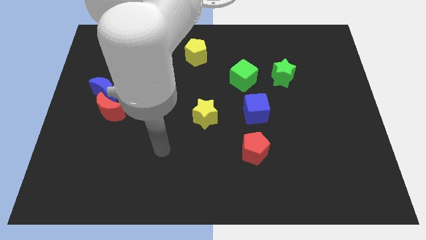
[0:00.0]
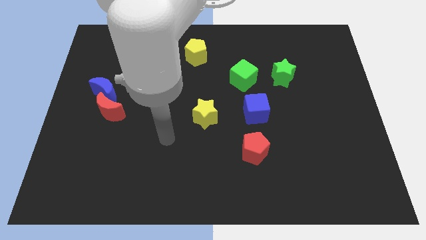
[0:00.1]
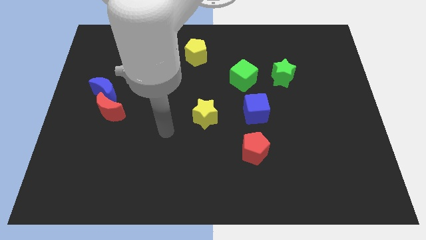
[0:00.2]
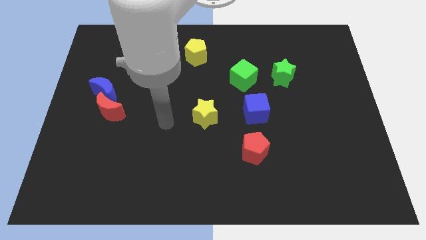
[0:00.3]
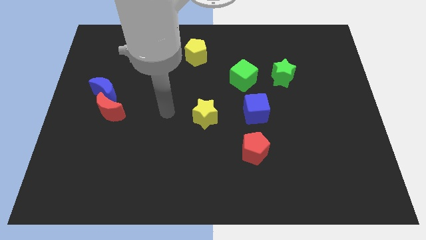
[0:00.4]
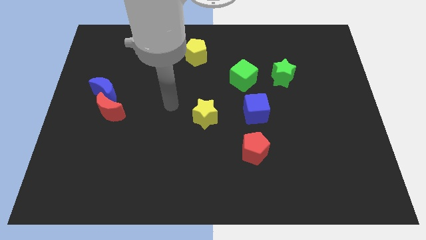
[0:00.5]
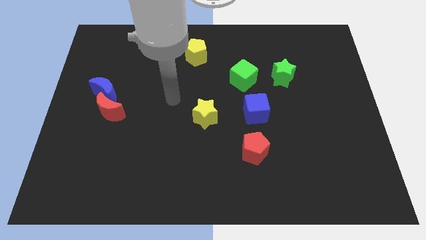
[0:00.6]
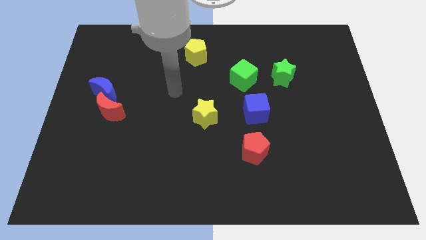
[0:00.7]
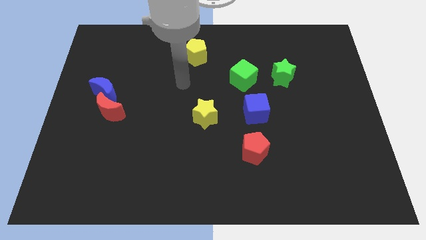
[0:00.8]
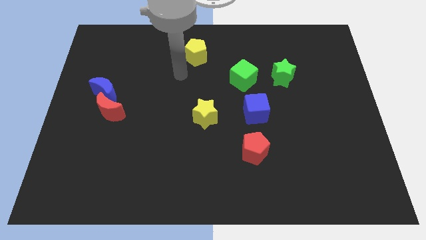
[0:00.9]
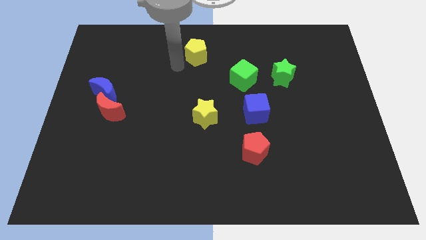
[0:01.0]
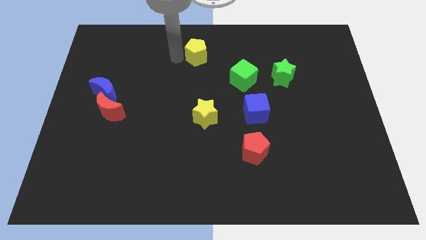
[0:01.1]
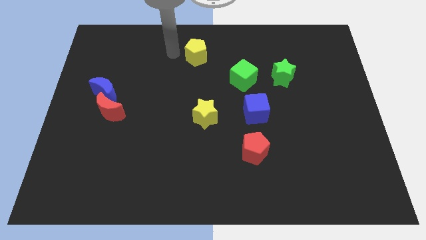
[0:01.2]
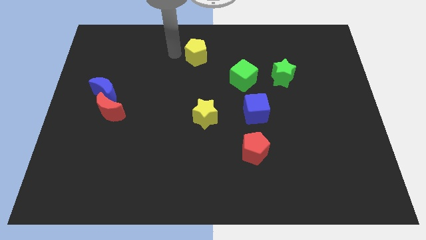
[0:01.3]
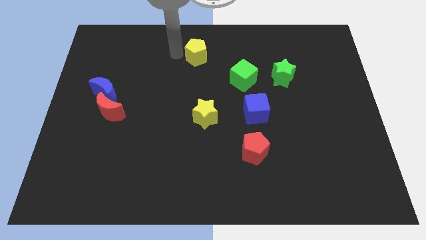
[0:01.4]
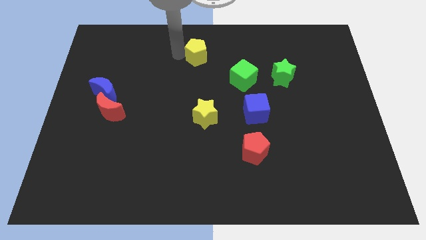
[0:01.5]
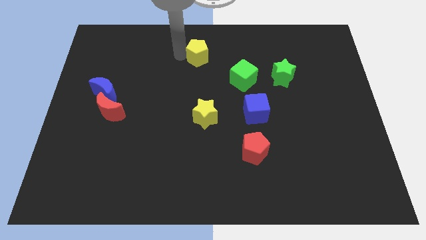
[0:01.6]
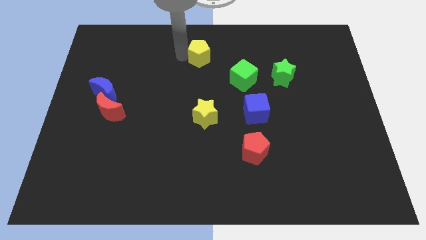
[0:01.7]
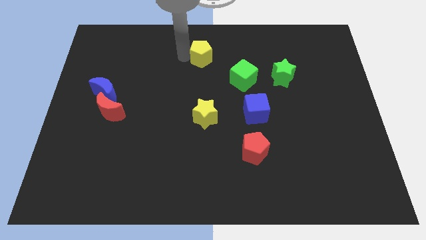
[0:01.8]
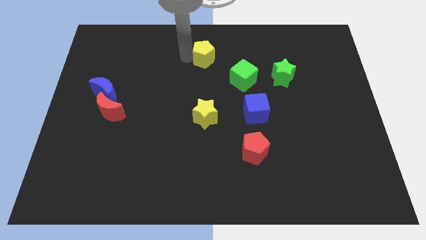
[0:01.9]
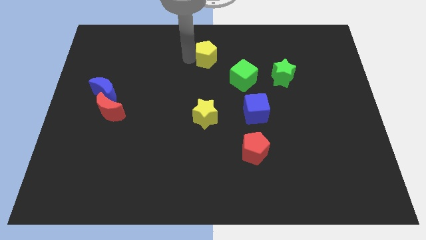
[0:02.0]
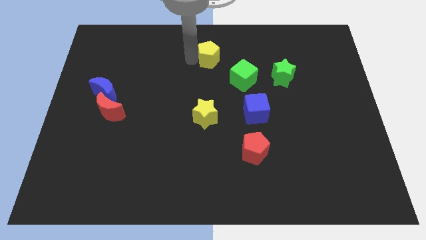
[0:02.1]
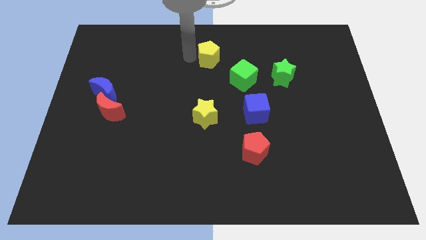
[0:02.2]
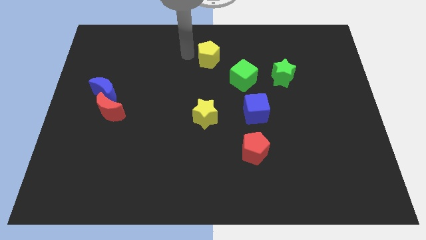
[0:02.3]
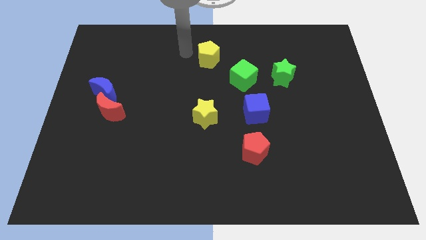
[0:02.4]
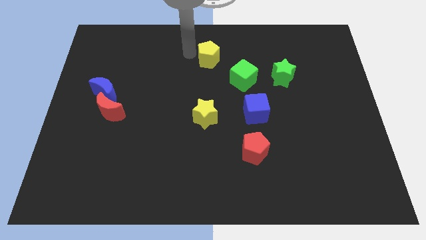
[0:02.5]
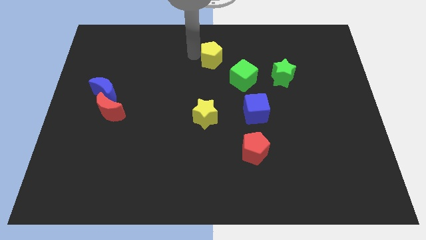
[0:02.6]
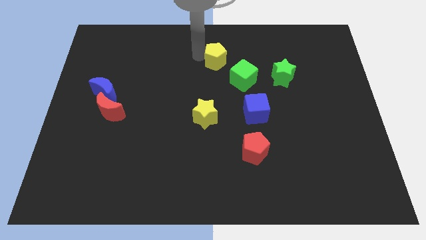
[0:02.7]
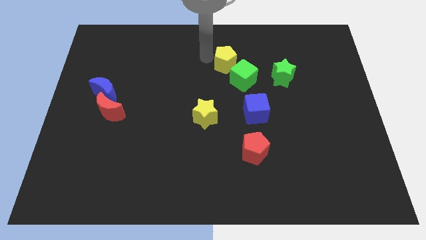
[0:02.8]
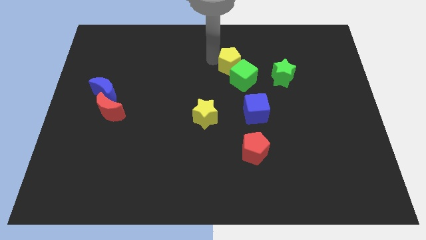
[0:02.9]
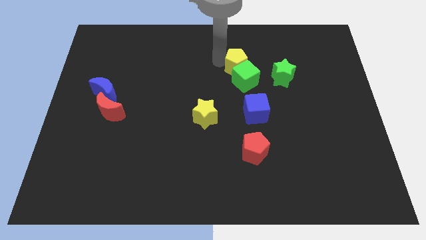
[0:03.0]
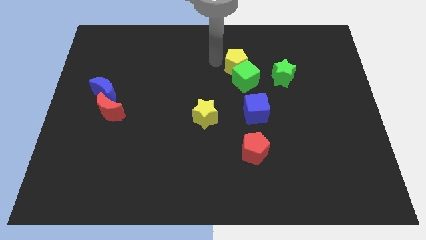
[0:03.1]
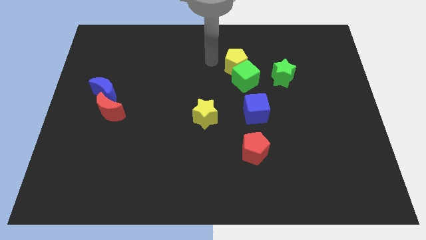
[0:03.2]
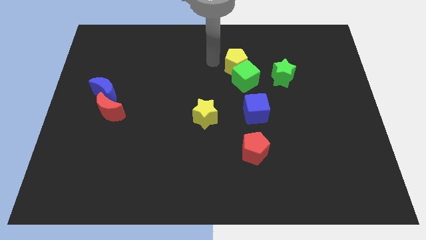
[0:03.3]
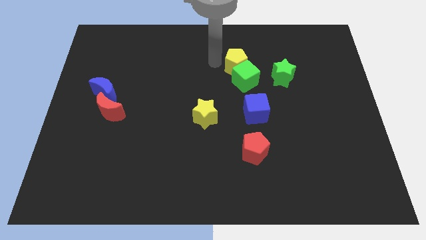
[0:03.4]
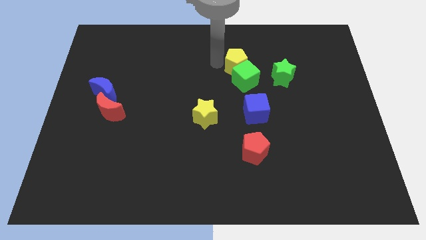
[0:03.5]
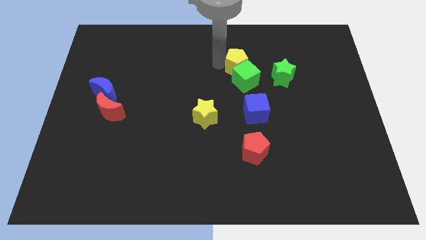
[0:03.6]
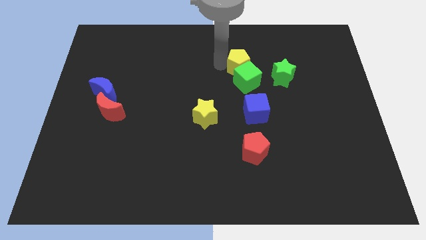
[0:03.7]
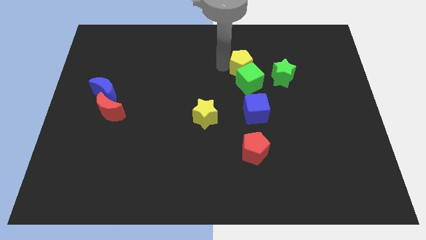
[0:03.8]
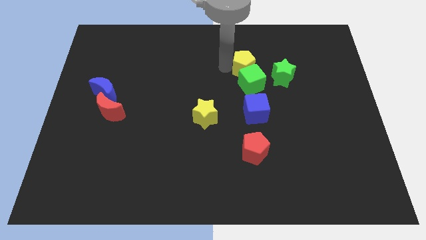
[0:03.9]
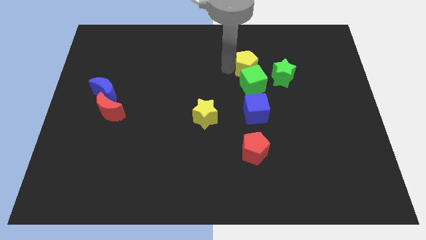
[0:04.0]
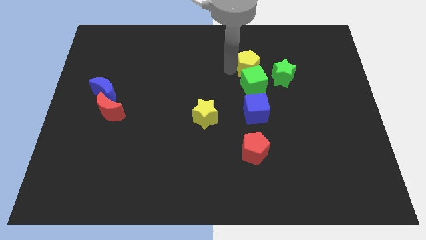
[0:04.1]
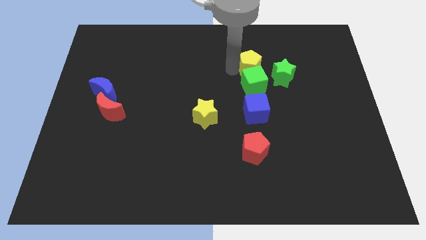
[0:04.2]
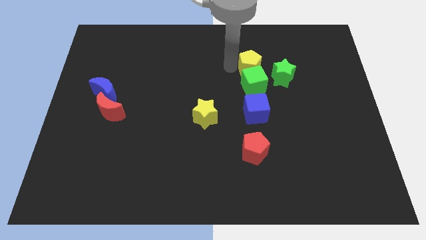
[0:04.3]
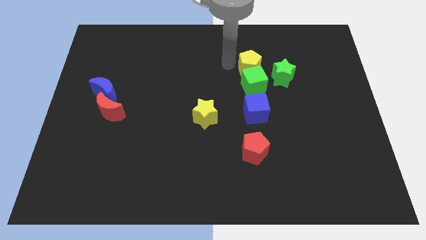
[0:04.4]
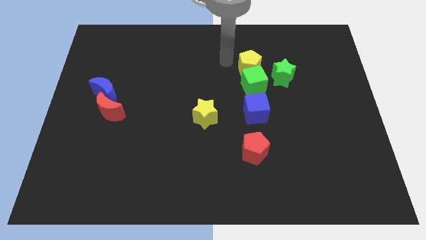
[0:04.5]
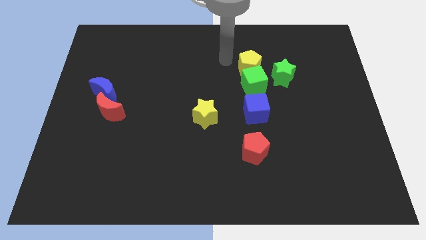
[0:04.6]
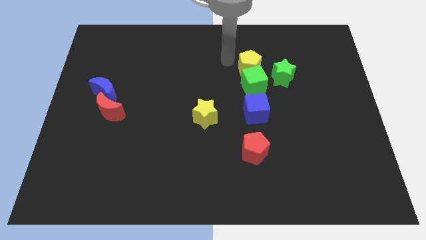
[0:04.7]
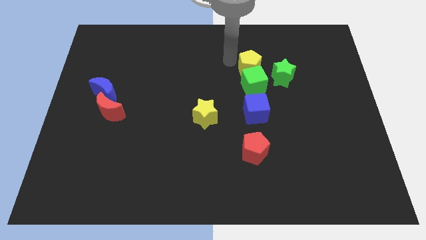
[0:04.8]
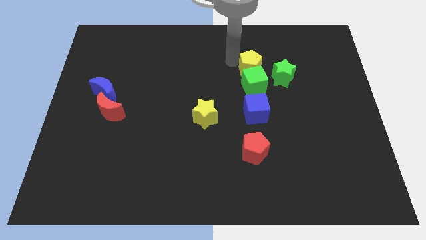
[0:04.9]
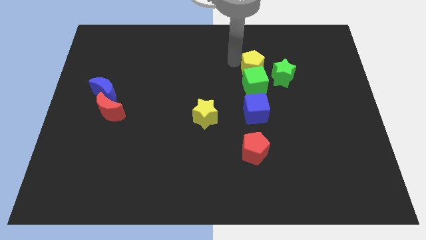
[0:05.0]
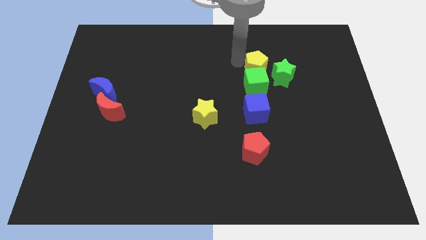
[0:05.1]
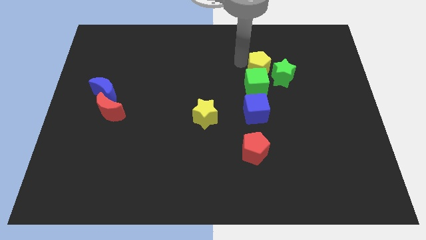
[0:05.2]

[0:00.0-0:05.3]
push the yellow pentagon close to the green star

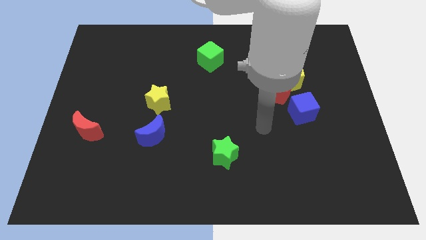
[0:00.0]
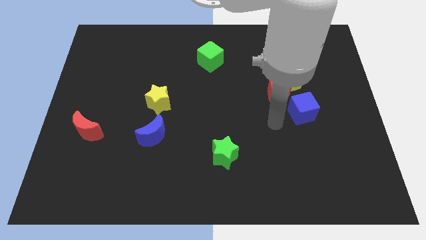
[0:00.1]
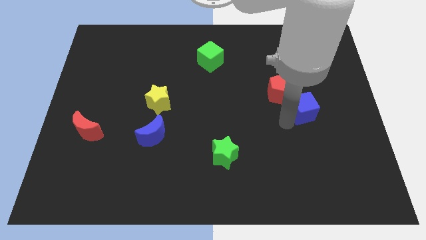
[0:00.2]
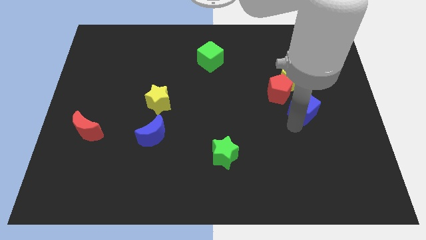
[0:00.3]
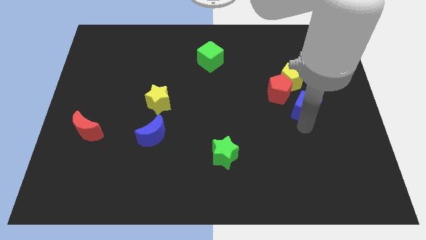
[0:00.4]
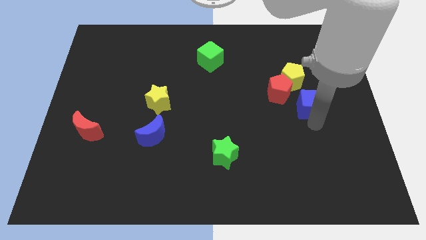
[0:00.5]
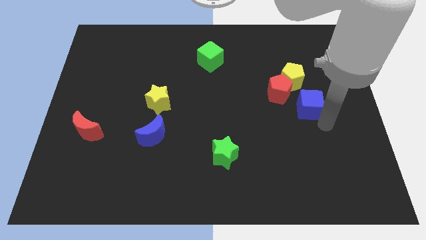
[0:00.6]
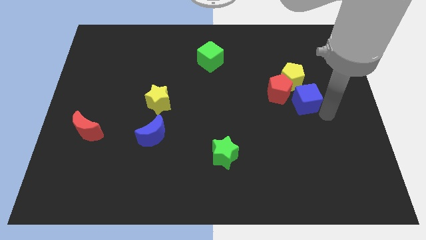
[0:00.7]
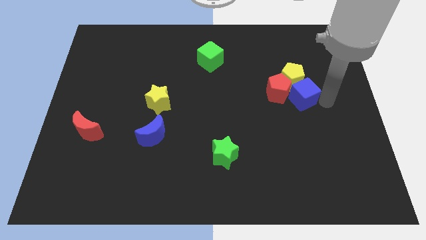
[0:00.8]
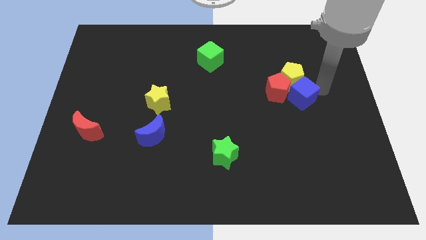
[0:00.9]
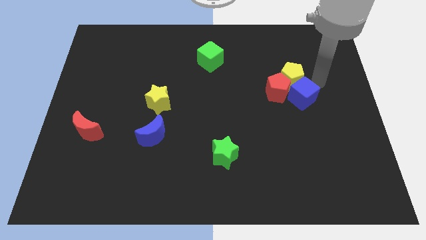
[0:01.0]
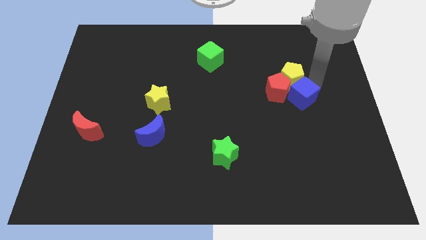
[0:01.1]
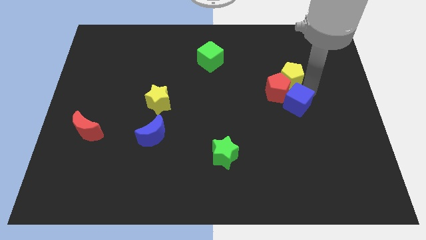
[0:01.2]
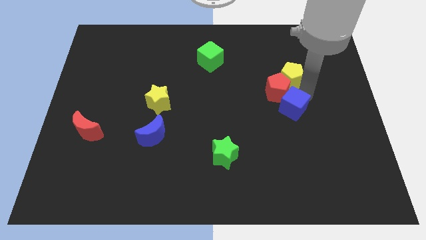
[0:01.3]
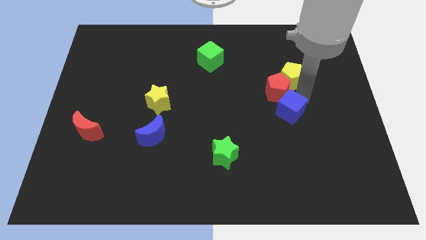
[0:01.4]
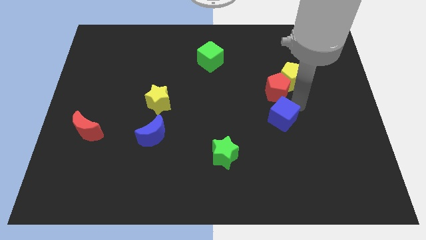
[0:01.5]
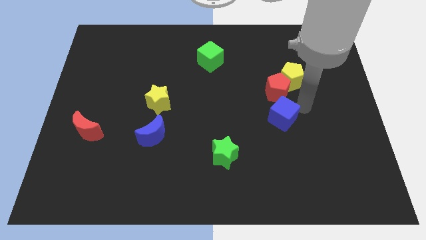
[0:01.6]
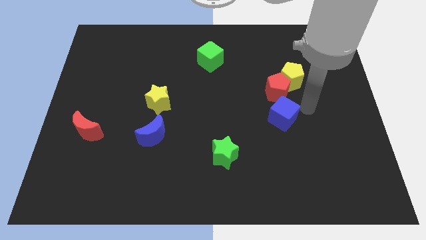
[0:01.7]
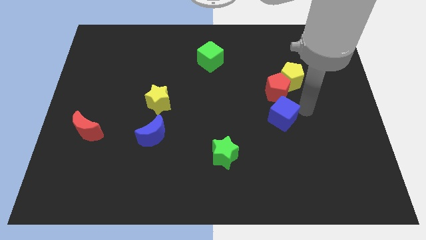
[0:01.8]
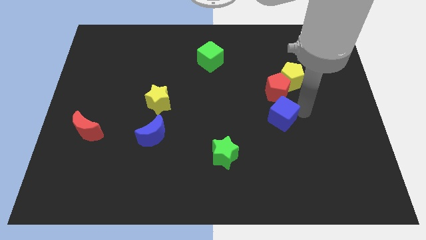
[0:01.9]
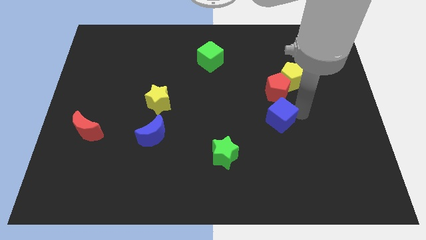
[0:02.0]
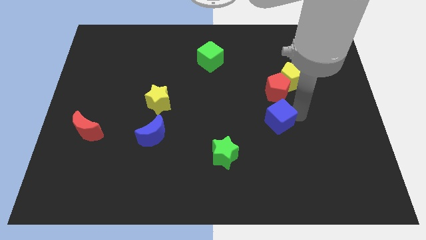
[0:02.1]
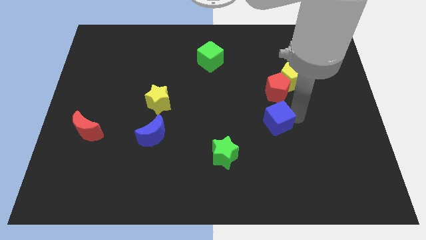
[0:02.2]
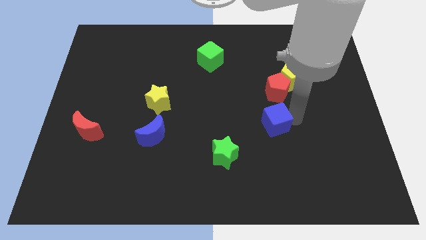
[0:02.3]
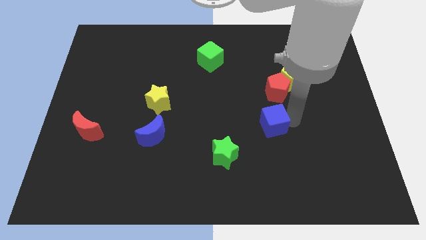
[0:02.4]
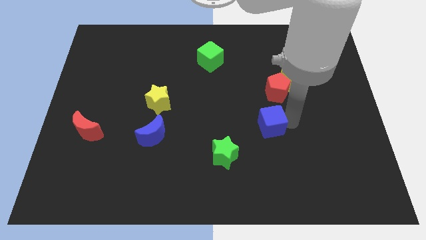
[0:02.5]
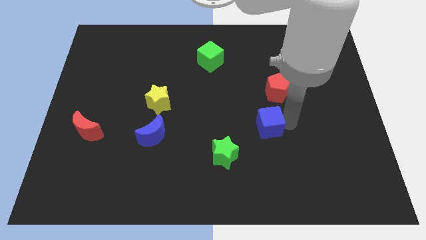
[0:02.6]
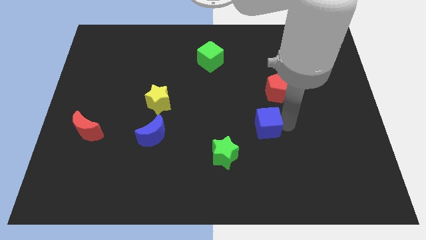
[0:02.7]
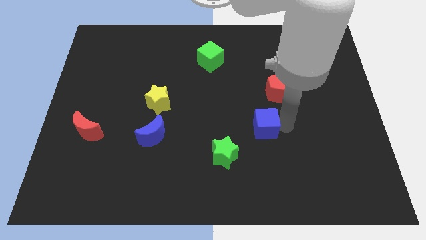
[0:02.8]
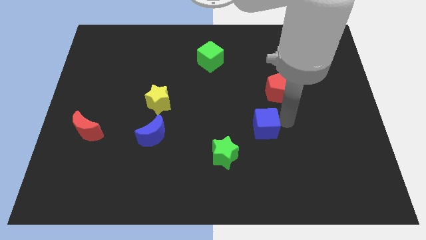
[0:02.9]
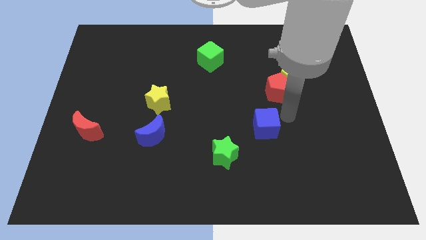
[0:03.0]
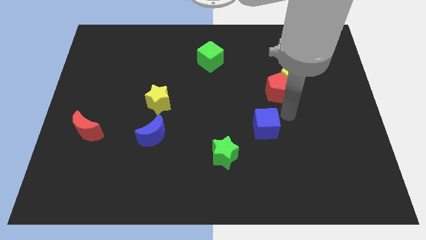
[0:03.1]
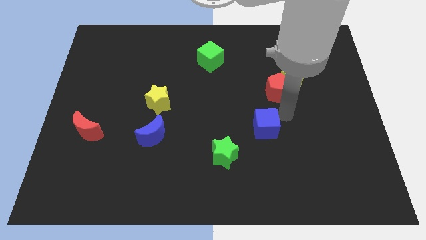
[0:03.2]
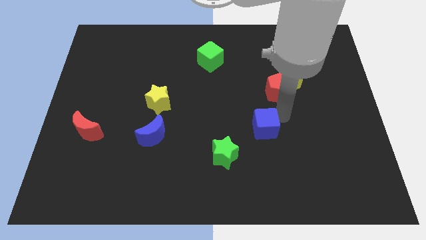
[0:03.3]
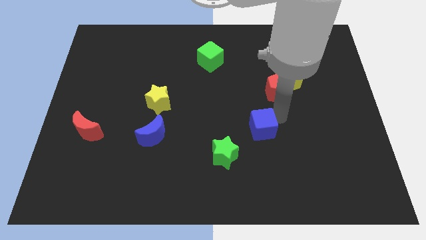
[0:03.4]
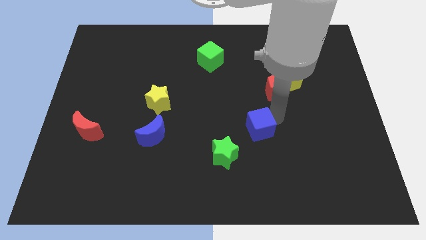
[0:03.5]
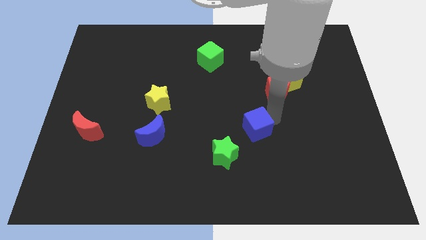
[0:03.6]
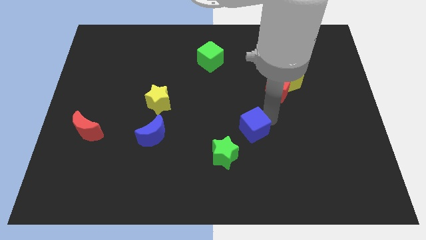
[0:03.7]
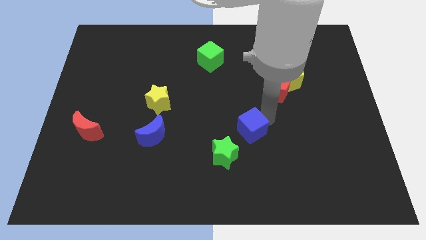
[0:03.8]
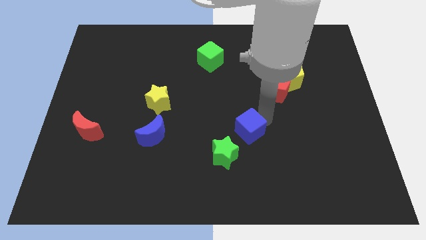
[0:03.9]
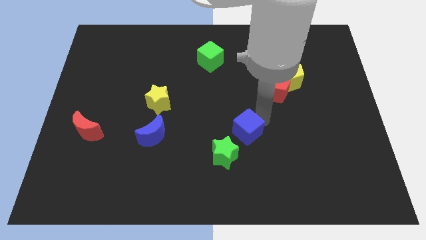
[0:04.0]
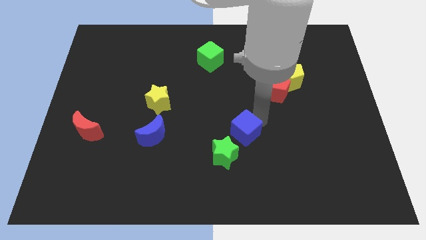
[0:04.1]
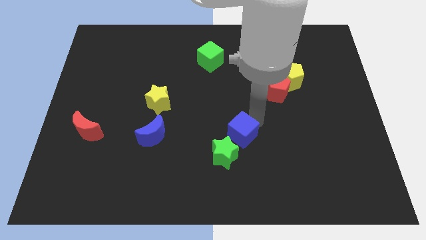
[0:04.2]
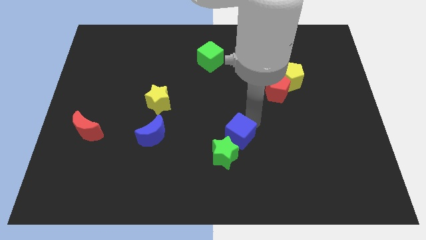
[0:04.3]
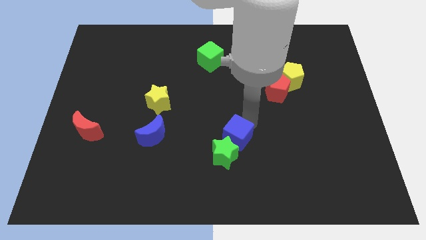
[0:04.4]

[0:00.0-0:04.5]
put the blue cube to the green star
